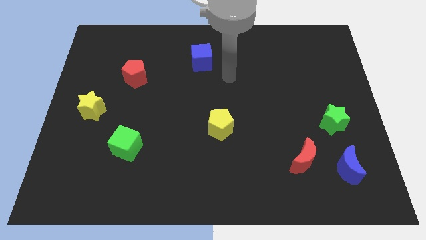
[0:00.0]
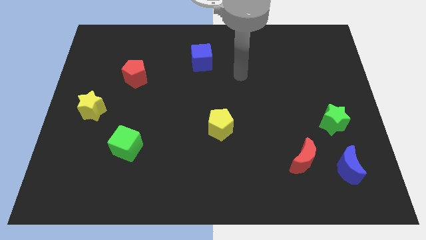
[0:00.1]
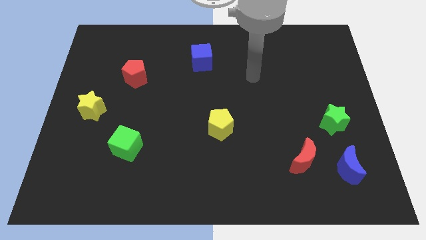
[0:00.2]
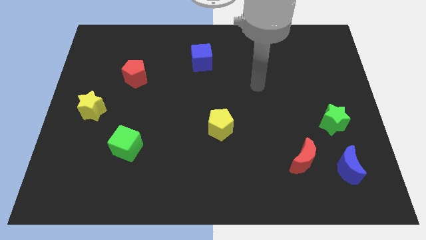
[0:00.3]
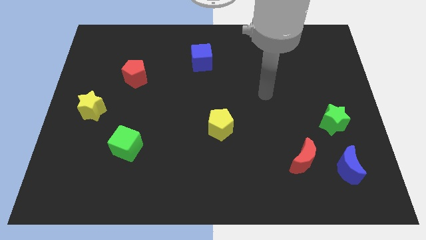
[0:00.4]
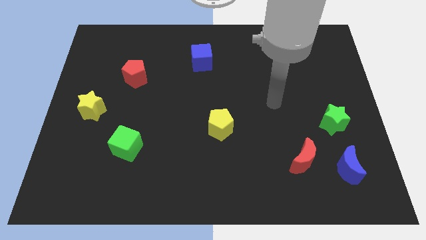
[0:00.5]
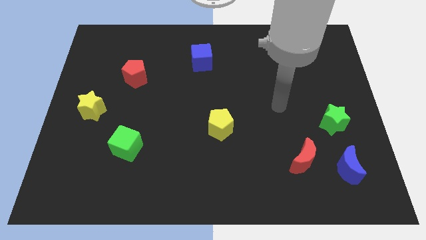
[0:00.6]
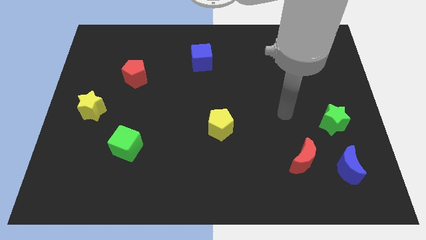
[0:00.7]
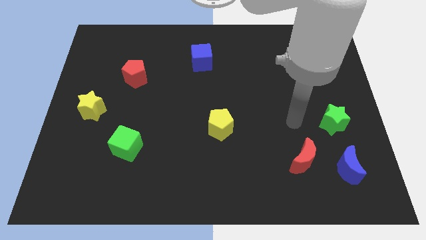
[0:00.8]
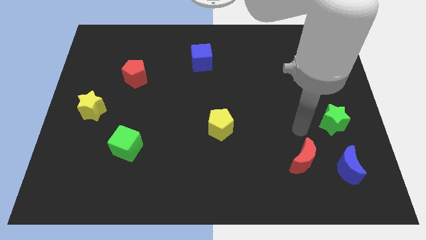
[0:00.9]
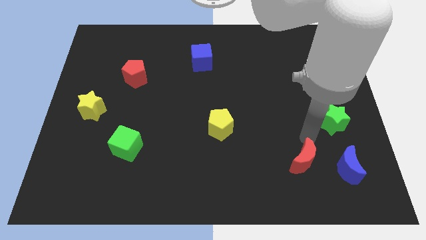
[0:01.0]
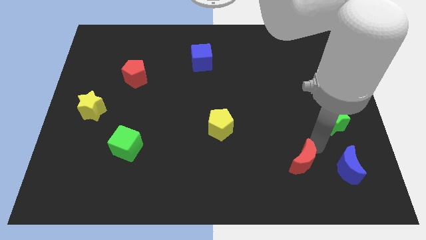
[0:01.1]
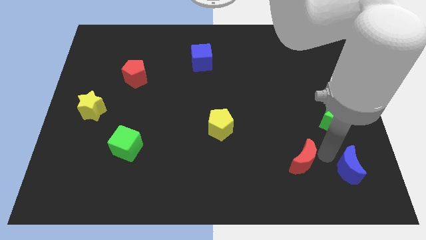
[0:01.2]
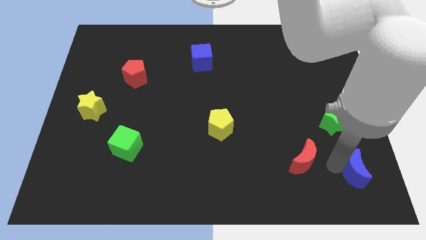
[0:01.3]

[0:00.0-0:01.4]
move the red moon away from the blue moon

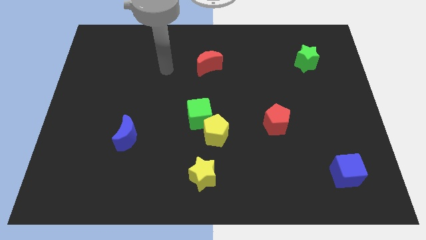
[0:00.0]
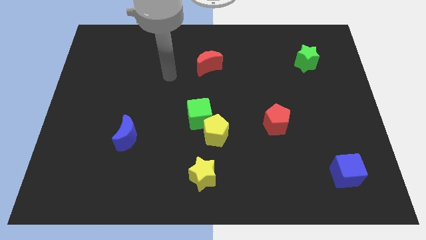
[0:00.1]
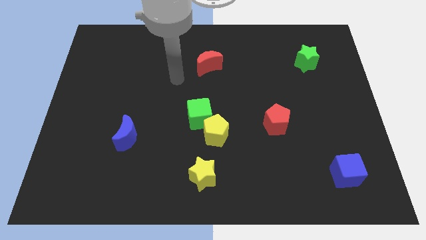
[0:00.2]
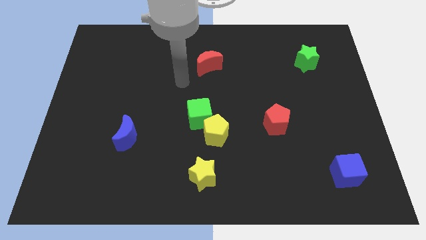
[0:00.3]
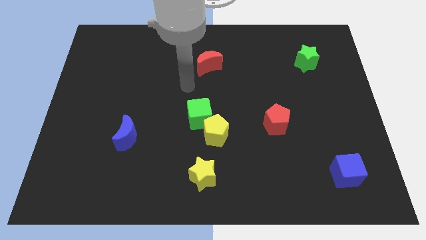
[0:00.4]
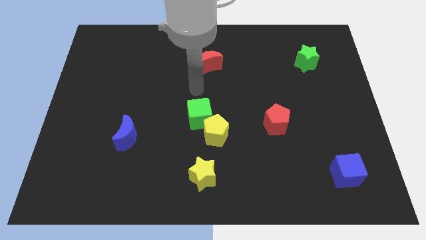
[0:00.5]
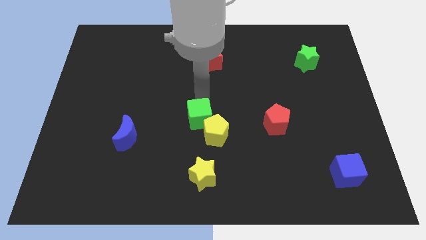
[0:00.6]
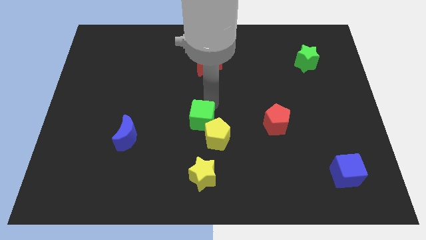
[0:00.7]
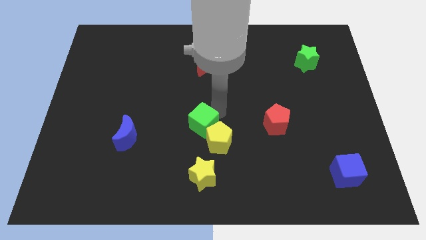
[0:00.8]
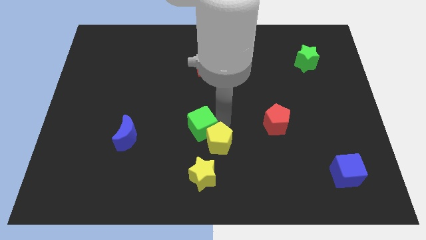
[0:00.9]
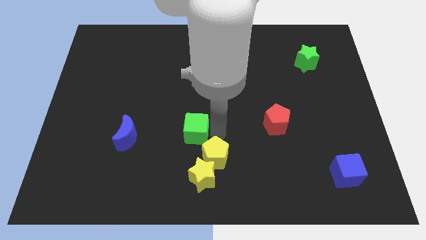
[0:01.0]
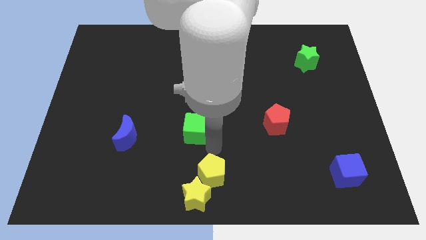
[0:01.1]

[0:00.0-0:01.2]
separate the green cube from the yellow pentagon

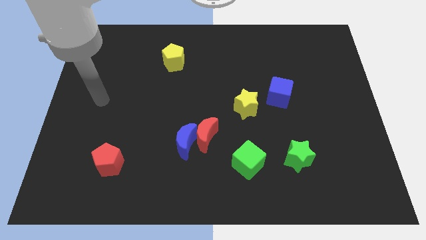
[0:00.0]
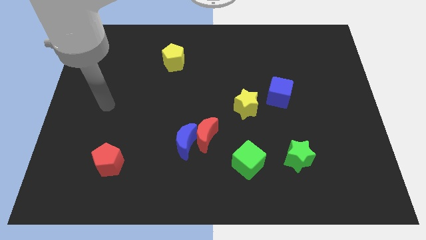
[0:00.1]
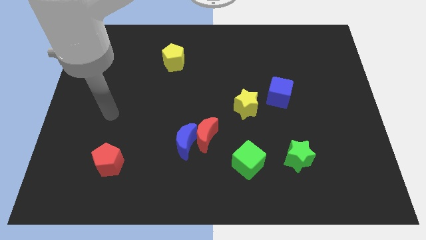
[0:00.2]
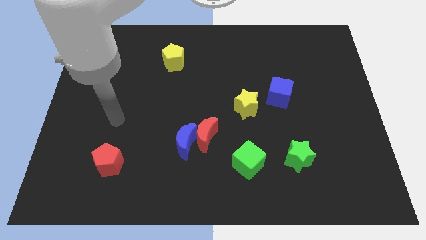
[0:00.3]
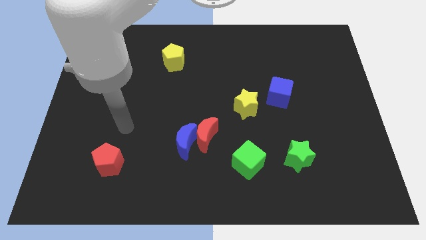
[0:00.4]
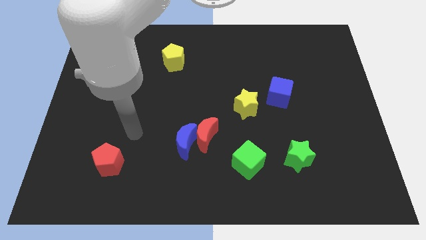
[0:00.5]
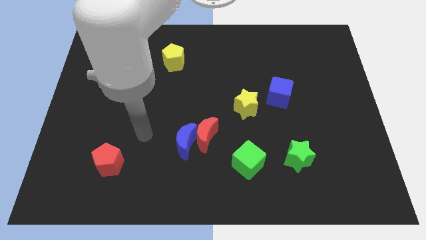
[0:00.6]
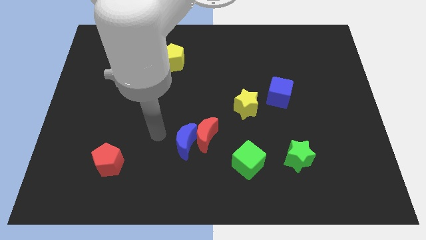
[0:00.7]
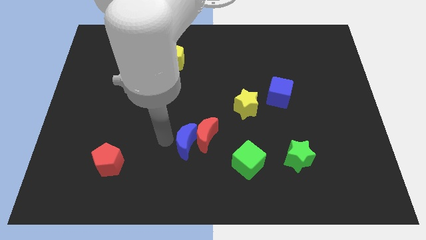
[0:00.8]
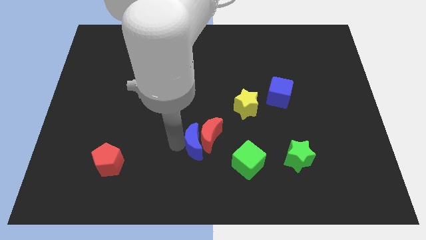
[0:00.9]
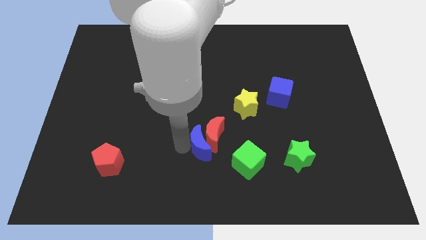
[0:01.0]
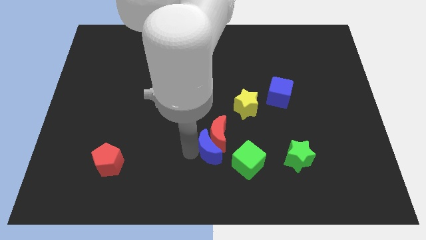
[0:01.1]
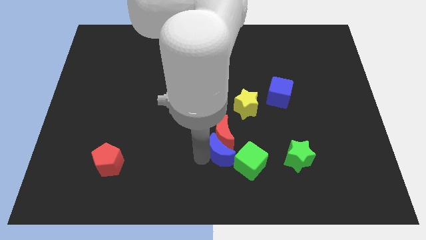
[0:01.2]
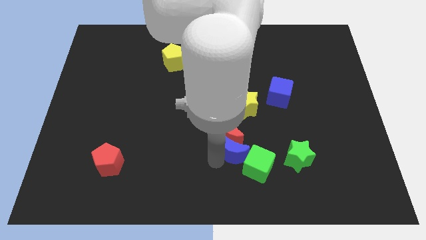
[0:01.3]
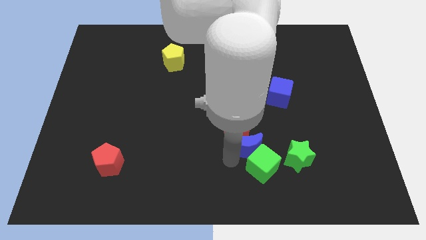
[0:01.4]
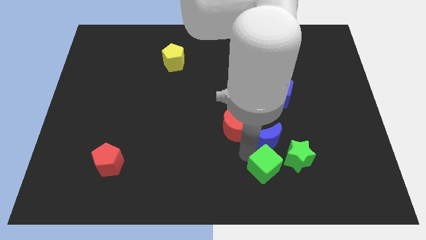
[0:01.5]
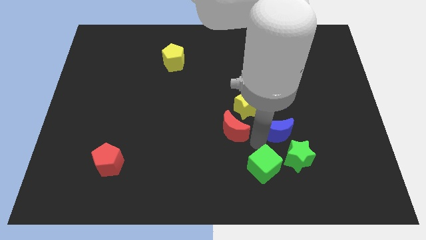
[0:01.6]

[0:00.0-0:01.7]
pull the red moon apart from the blue moon

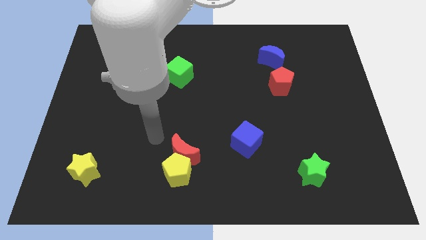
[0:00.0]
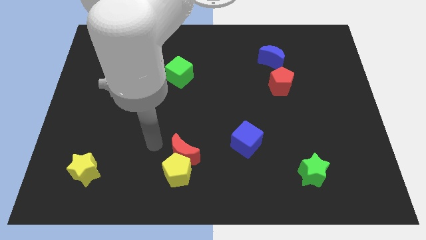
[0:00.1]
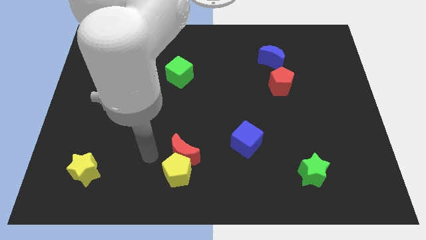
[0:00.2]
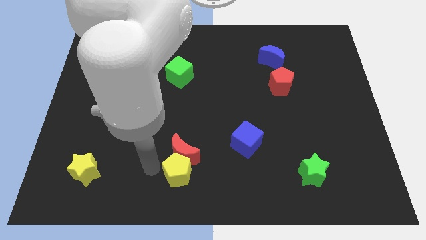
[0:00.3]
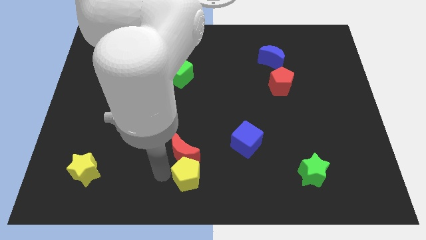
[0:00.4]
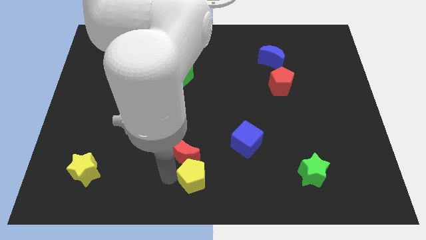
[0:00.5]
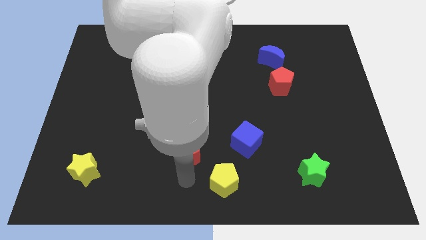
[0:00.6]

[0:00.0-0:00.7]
move the red moon away from the yellow pentagon

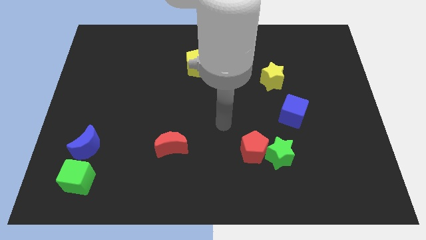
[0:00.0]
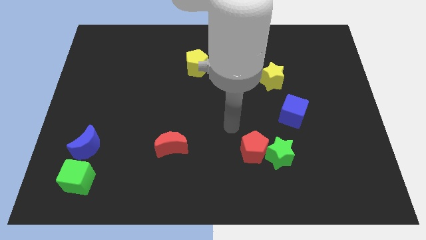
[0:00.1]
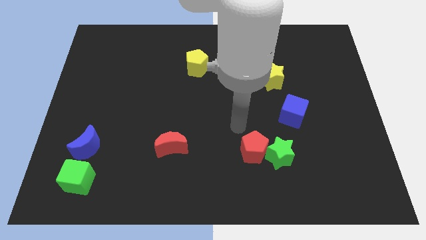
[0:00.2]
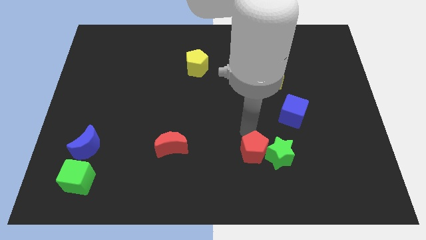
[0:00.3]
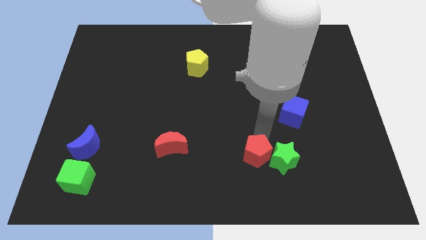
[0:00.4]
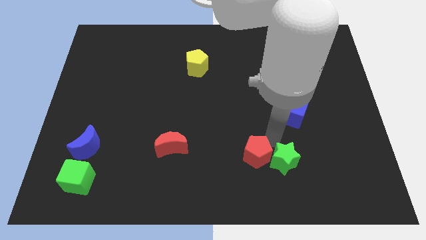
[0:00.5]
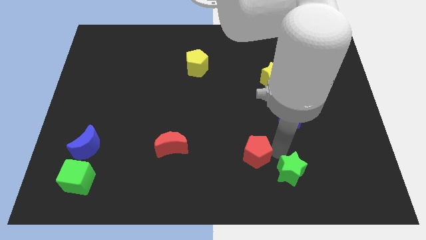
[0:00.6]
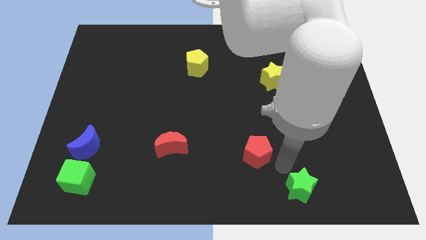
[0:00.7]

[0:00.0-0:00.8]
separate the red pentagon from the green star

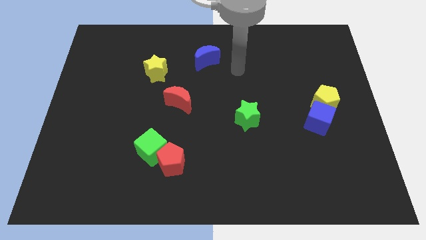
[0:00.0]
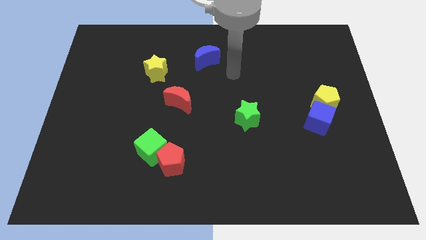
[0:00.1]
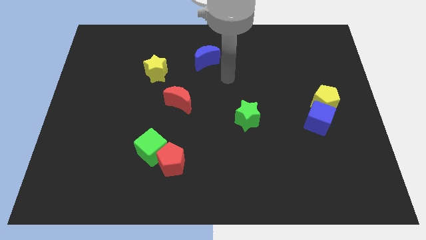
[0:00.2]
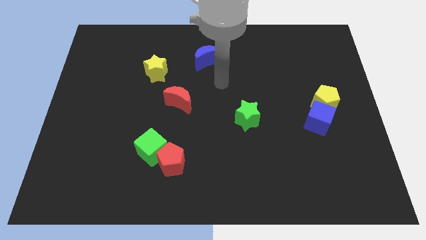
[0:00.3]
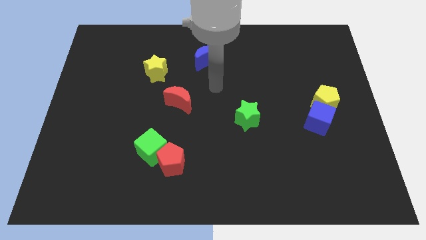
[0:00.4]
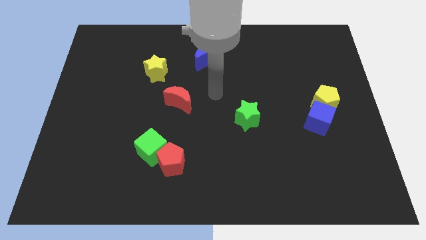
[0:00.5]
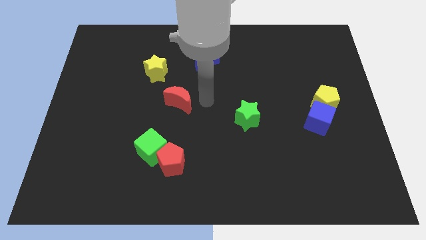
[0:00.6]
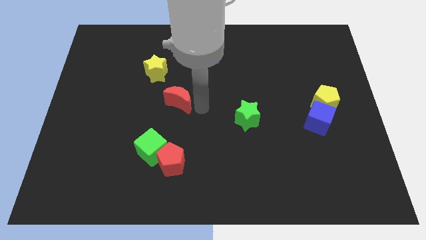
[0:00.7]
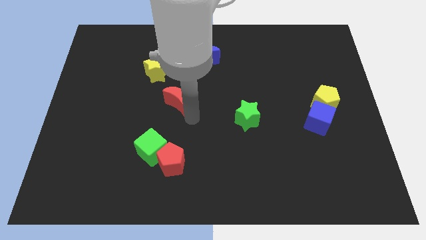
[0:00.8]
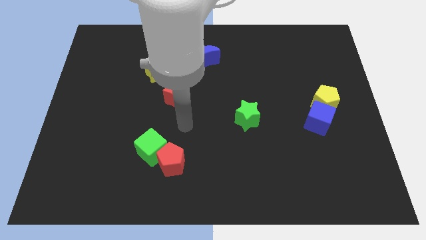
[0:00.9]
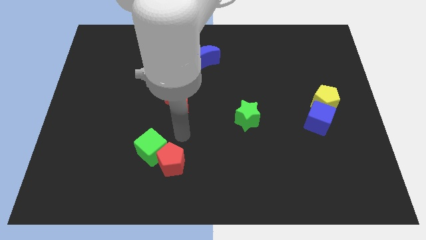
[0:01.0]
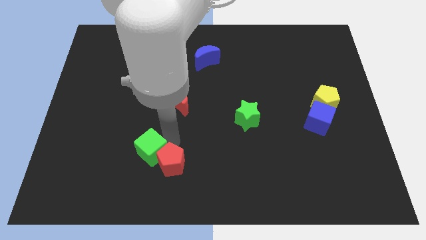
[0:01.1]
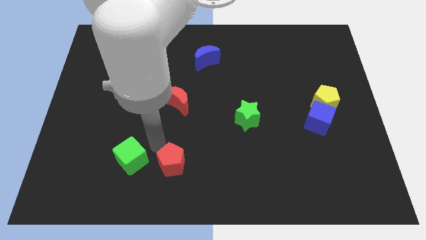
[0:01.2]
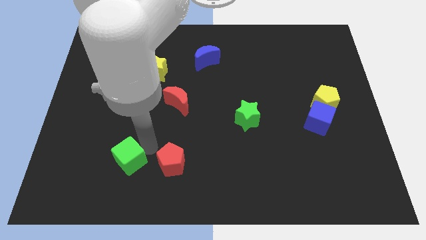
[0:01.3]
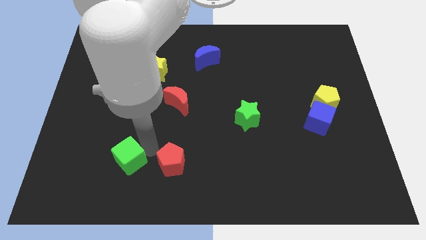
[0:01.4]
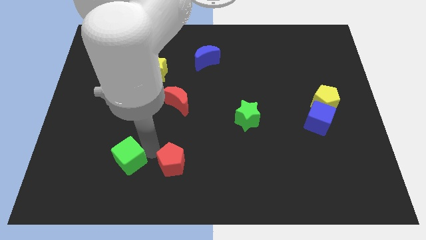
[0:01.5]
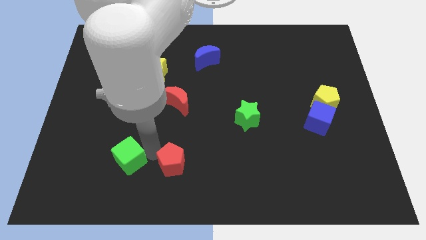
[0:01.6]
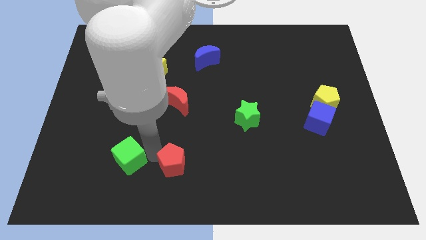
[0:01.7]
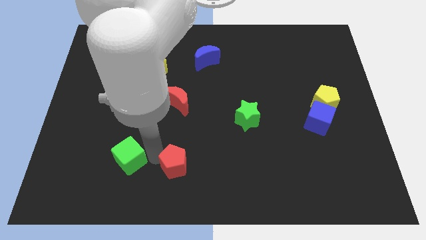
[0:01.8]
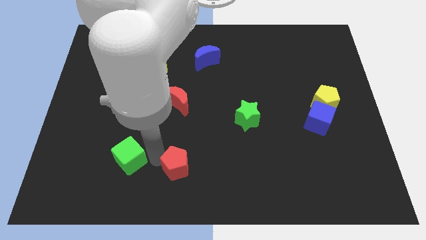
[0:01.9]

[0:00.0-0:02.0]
move the red pentagon away from the green cube

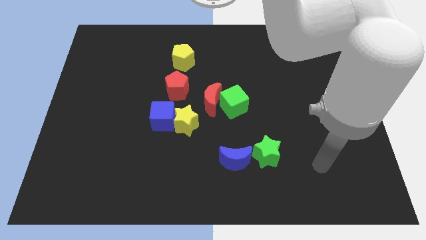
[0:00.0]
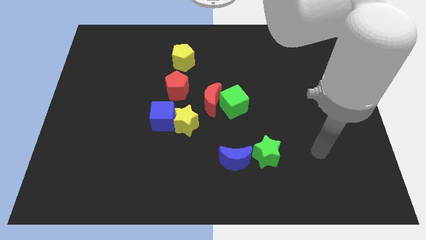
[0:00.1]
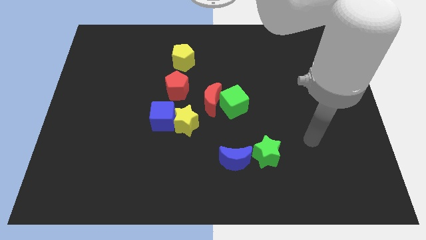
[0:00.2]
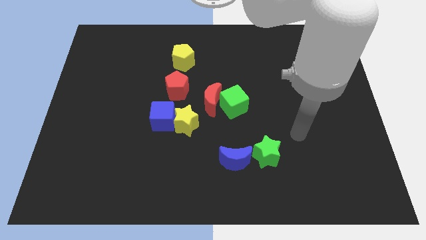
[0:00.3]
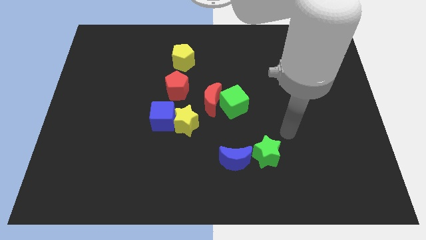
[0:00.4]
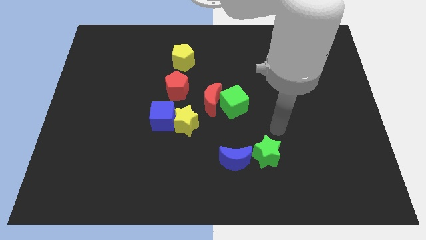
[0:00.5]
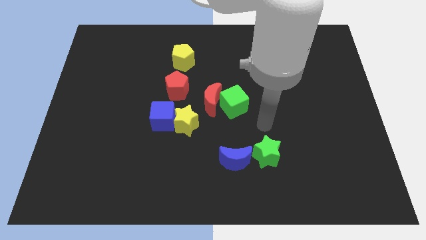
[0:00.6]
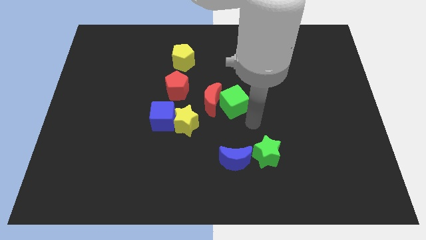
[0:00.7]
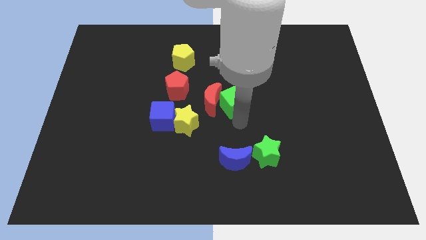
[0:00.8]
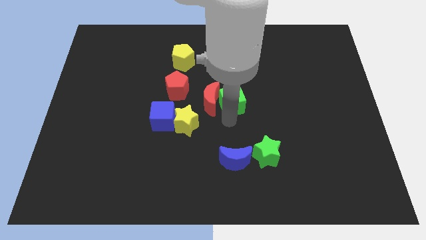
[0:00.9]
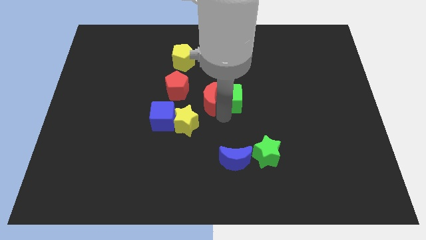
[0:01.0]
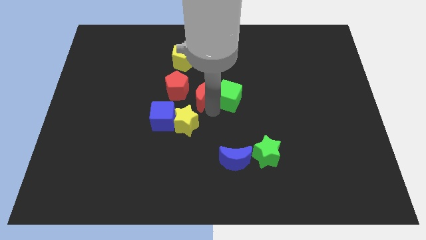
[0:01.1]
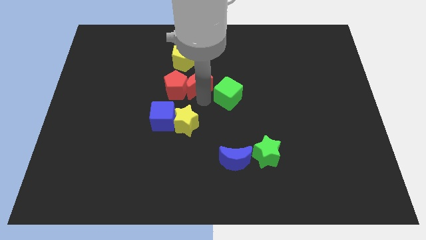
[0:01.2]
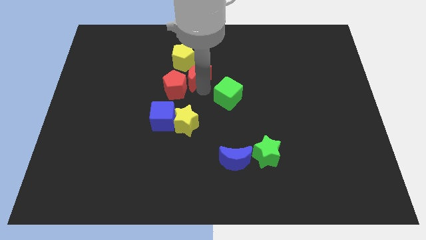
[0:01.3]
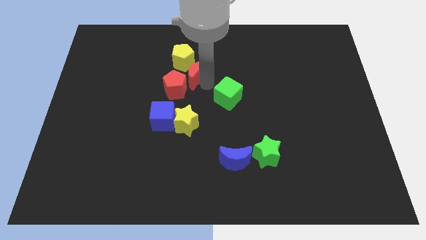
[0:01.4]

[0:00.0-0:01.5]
pull the green cube apart from the red moon
